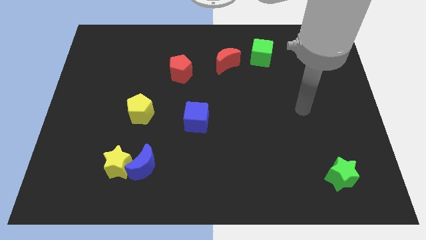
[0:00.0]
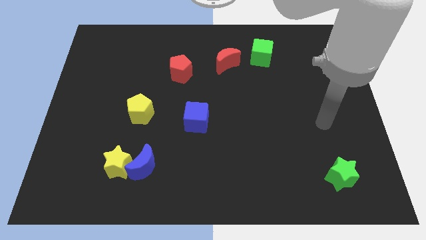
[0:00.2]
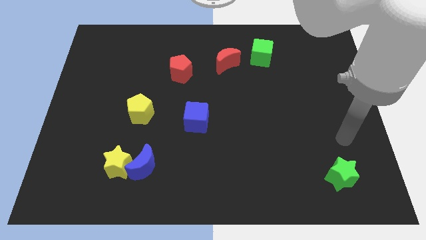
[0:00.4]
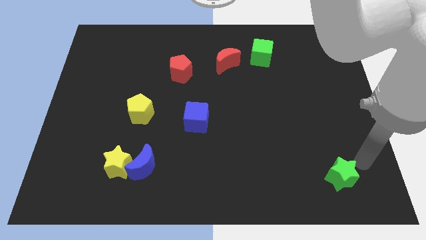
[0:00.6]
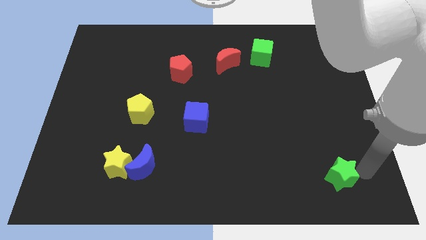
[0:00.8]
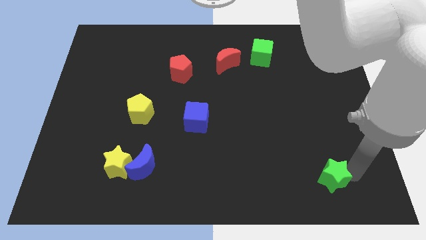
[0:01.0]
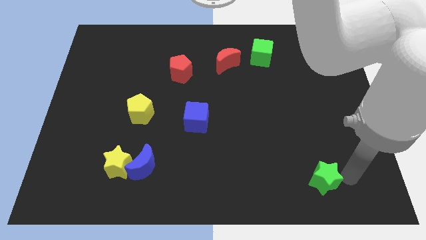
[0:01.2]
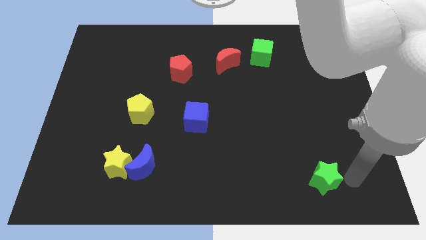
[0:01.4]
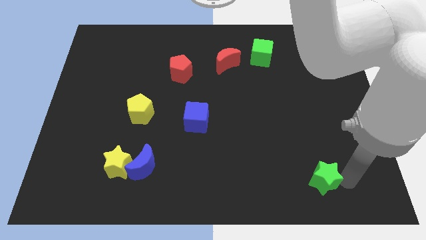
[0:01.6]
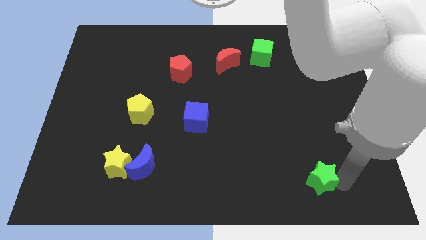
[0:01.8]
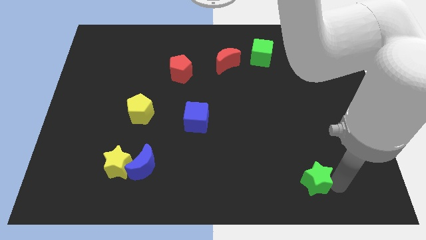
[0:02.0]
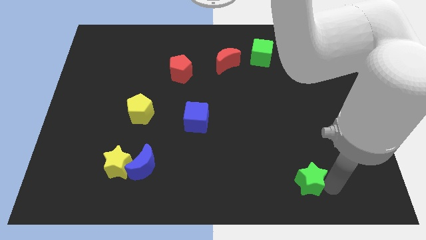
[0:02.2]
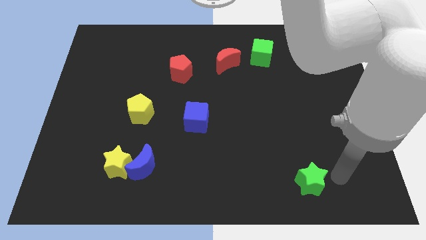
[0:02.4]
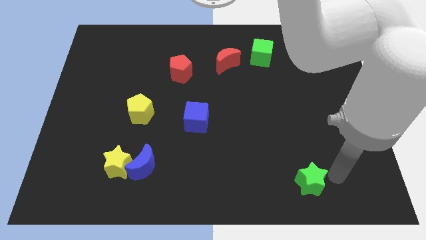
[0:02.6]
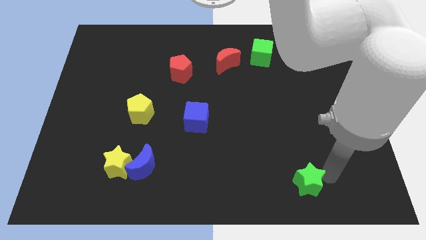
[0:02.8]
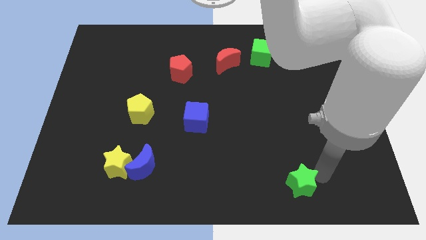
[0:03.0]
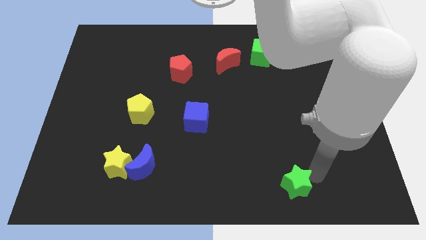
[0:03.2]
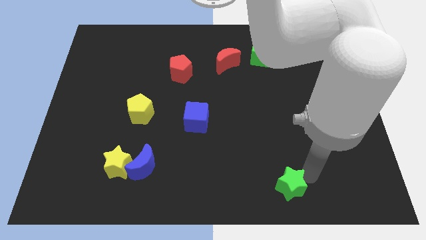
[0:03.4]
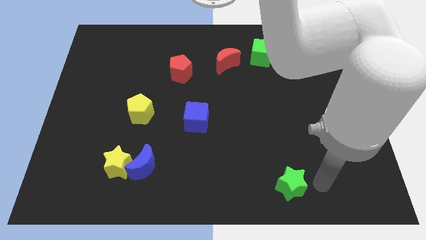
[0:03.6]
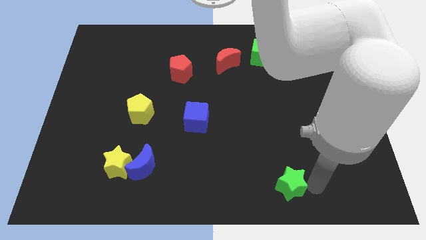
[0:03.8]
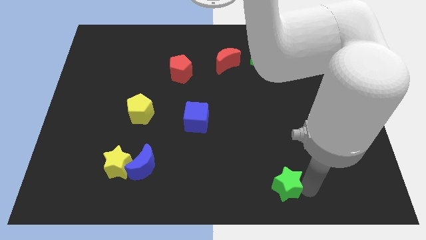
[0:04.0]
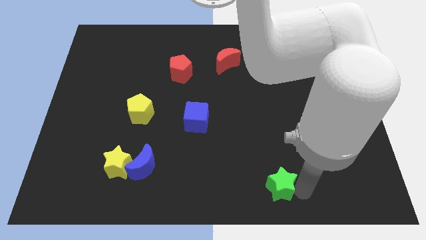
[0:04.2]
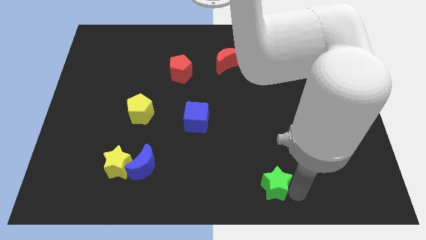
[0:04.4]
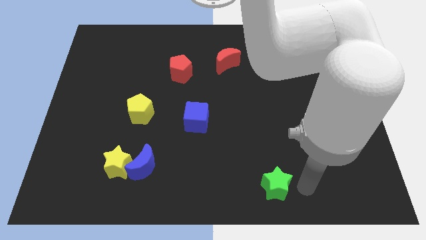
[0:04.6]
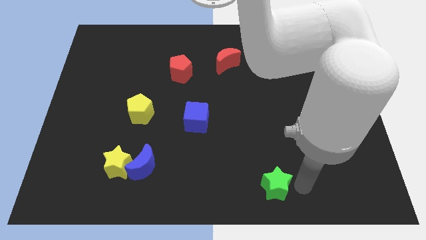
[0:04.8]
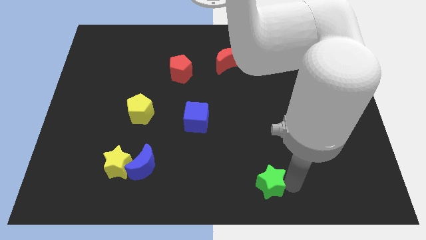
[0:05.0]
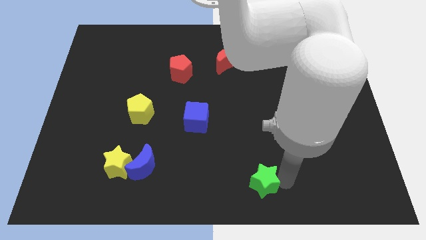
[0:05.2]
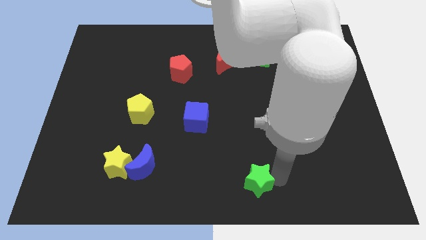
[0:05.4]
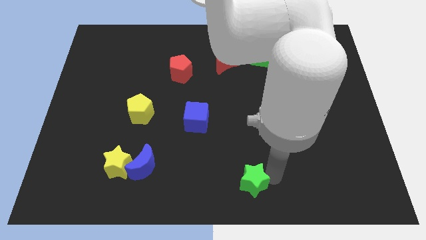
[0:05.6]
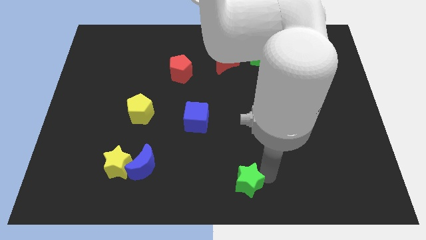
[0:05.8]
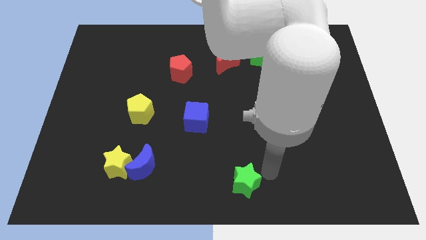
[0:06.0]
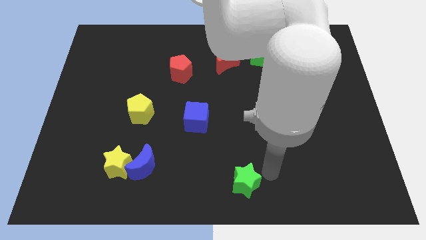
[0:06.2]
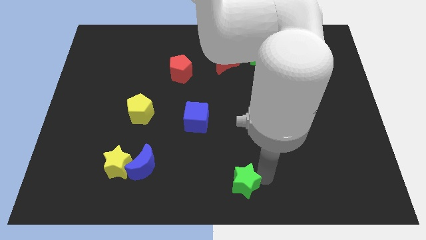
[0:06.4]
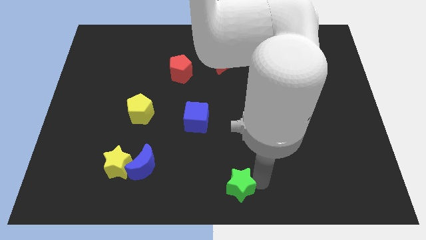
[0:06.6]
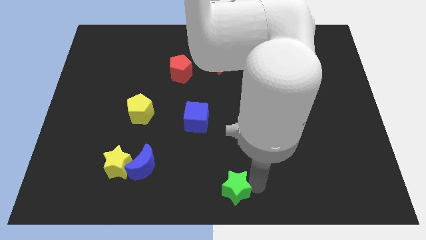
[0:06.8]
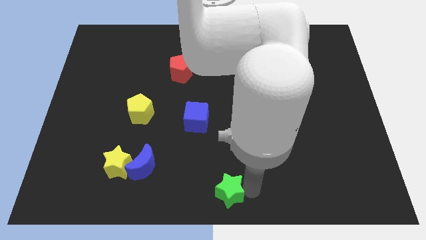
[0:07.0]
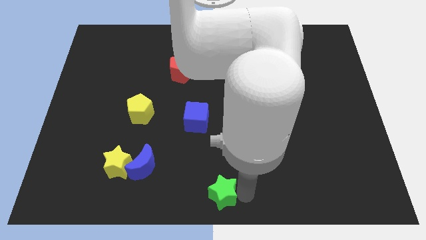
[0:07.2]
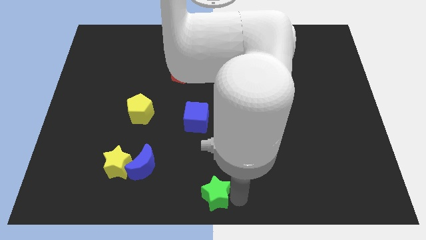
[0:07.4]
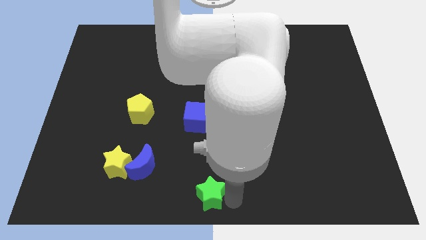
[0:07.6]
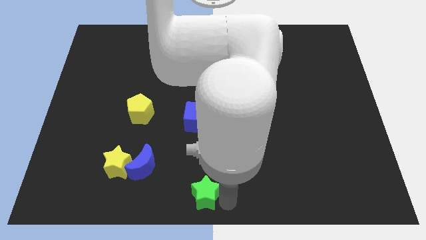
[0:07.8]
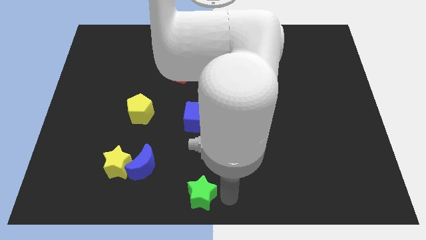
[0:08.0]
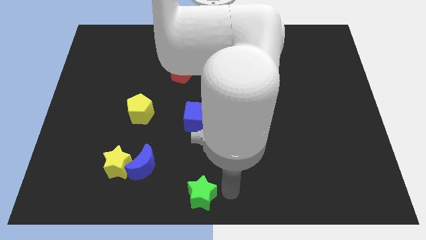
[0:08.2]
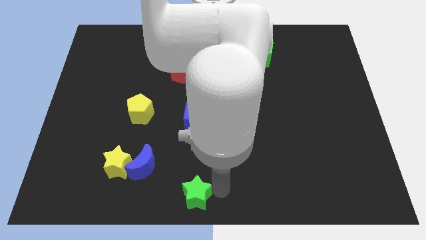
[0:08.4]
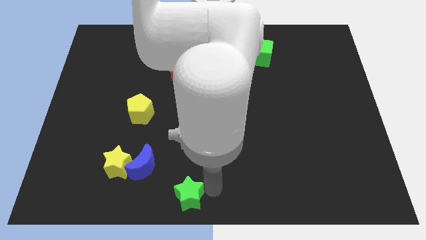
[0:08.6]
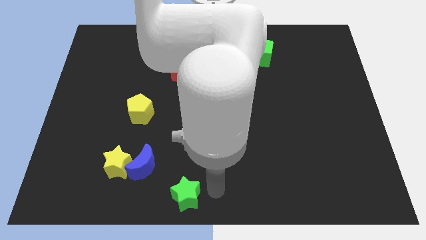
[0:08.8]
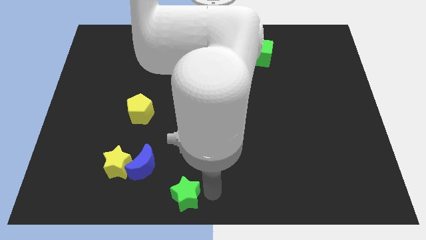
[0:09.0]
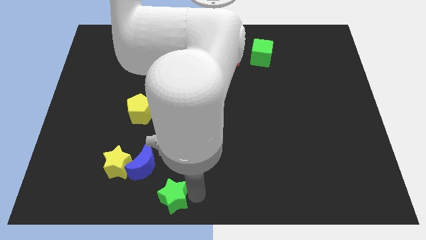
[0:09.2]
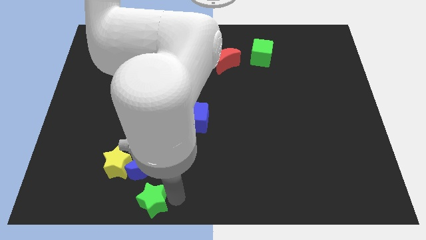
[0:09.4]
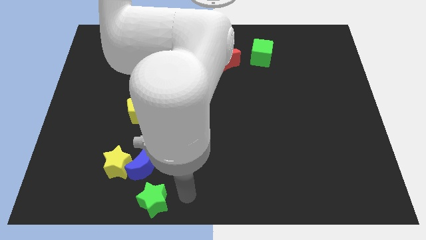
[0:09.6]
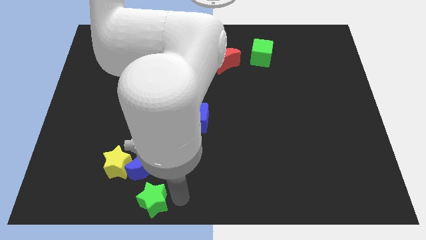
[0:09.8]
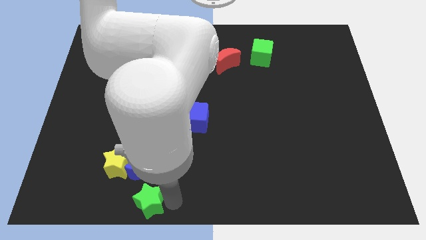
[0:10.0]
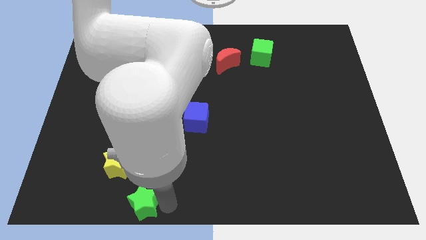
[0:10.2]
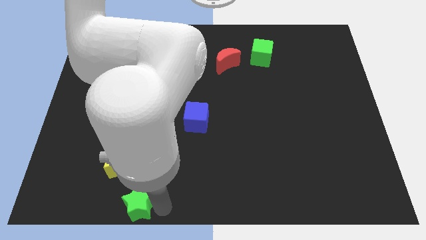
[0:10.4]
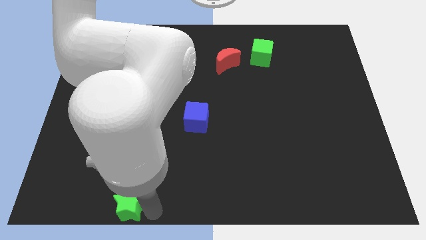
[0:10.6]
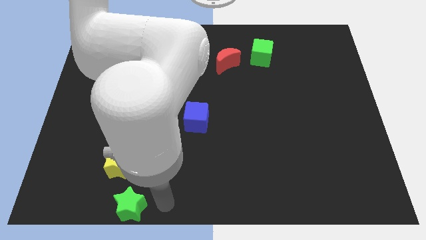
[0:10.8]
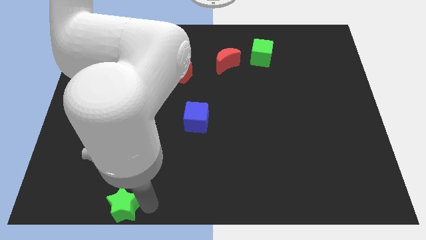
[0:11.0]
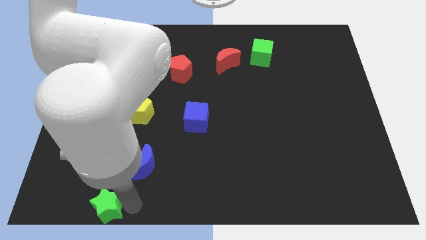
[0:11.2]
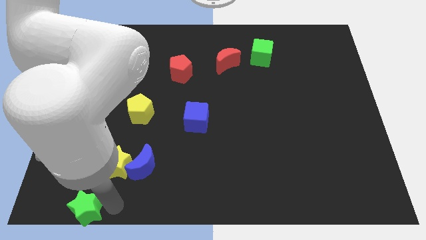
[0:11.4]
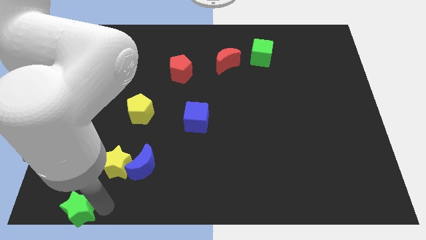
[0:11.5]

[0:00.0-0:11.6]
slide the green star to the lower left corner

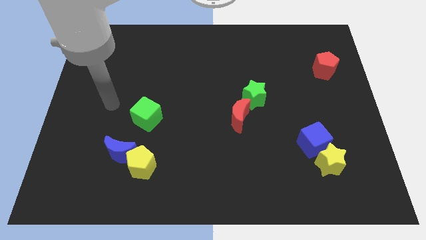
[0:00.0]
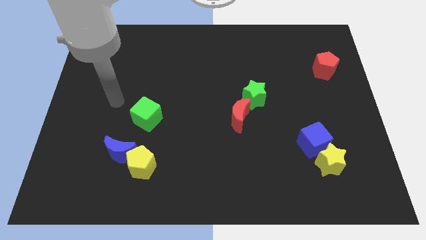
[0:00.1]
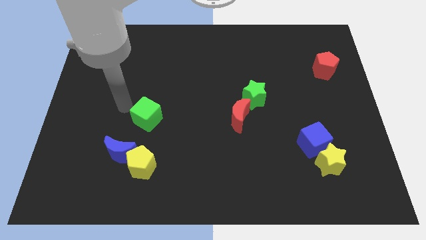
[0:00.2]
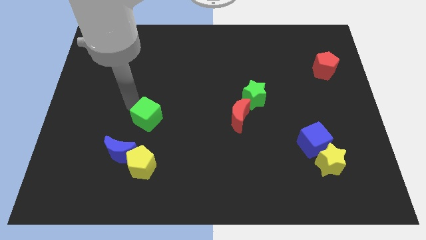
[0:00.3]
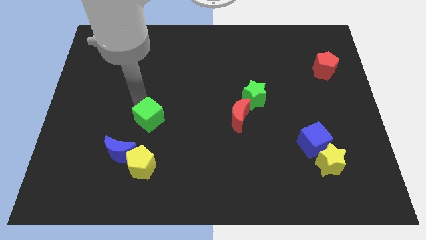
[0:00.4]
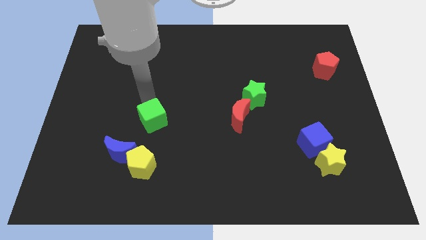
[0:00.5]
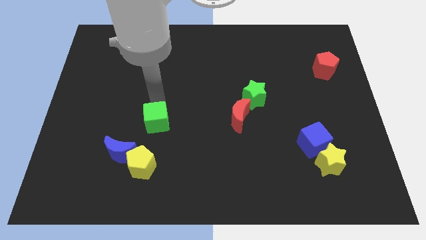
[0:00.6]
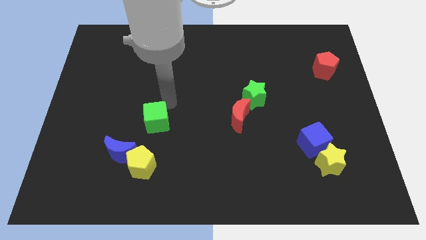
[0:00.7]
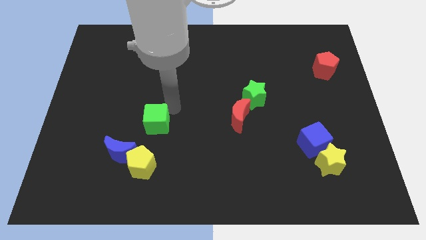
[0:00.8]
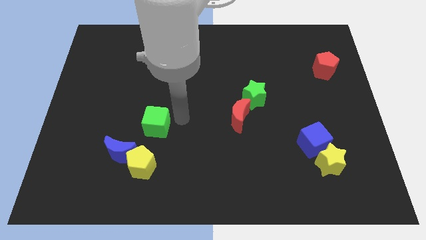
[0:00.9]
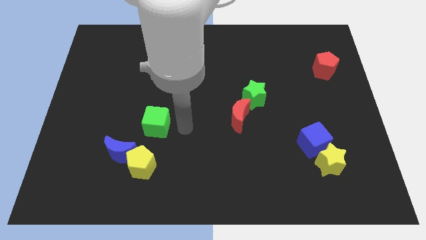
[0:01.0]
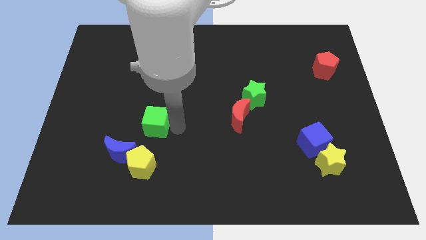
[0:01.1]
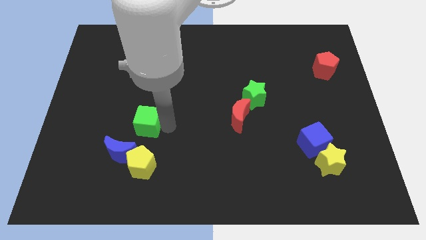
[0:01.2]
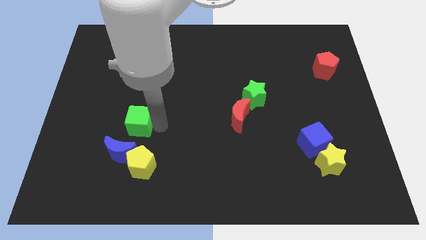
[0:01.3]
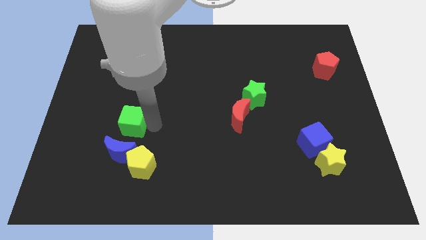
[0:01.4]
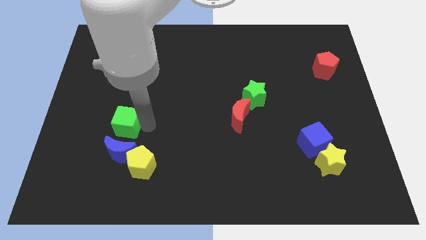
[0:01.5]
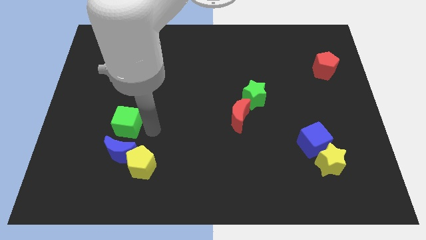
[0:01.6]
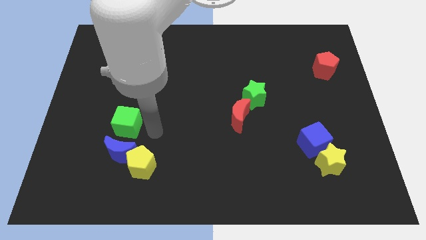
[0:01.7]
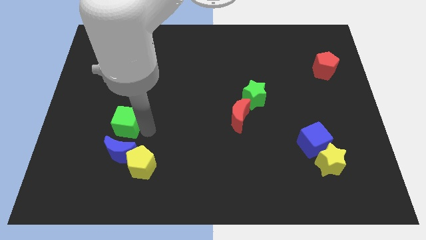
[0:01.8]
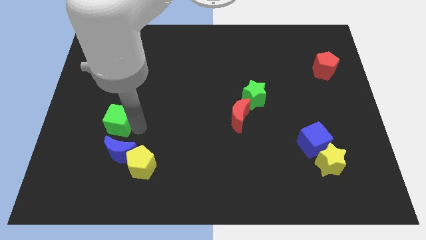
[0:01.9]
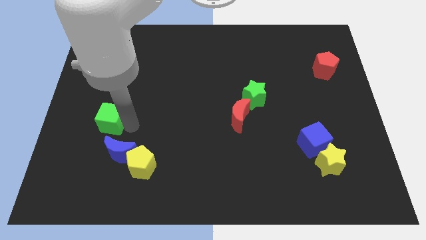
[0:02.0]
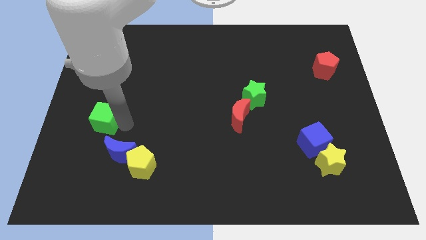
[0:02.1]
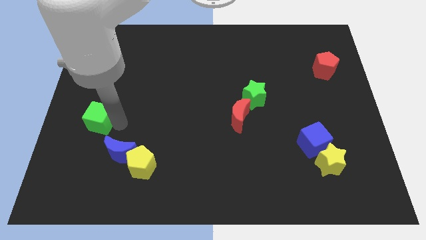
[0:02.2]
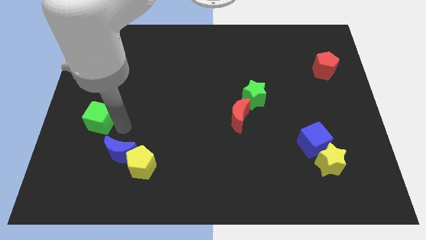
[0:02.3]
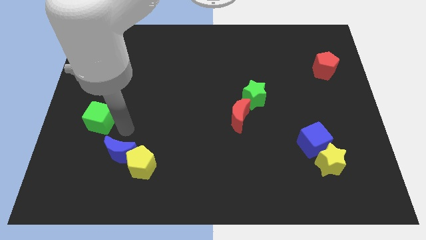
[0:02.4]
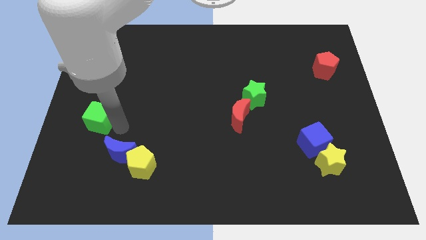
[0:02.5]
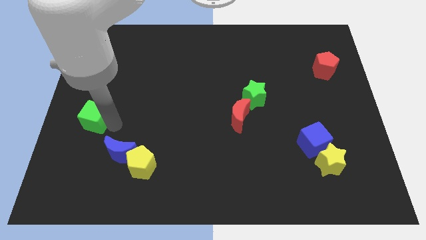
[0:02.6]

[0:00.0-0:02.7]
put the green cube to the left side of the board
